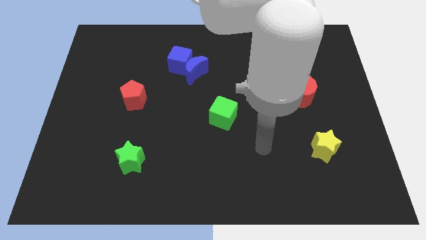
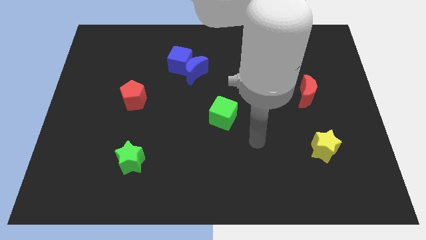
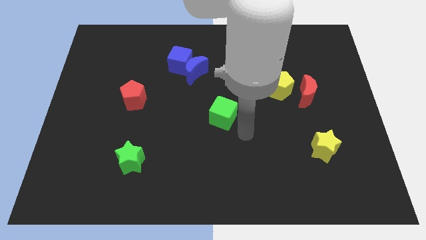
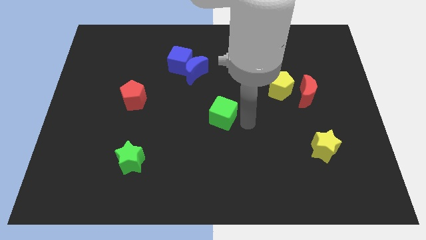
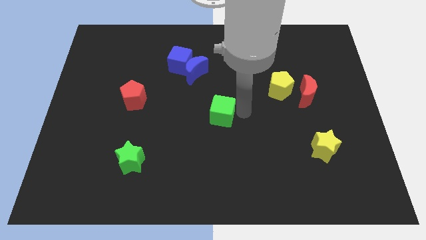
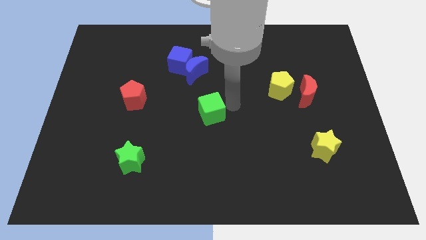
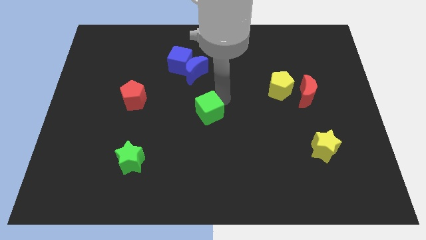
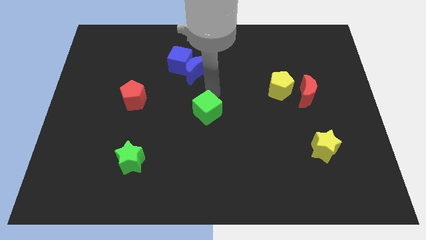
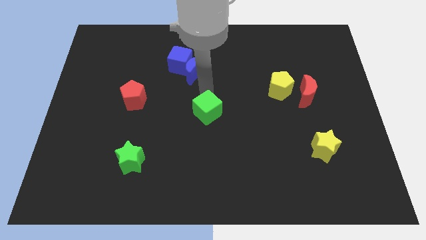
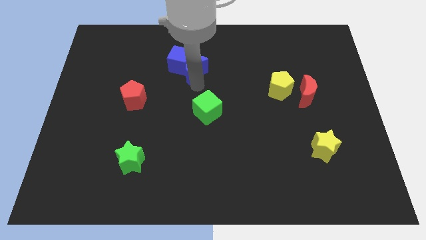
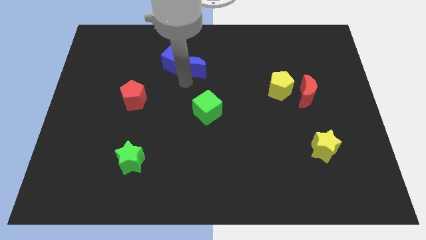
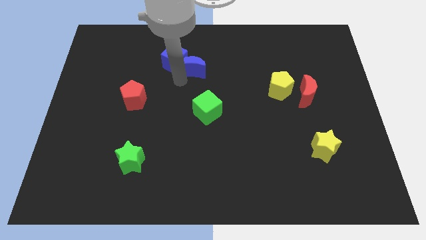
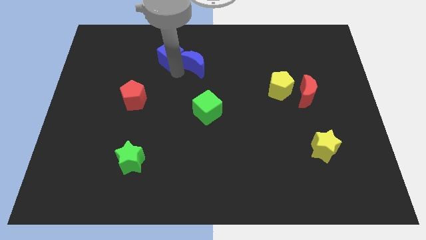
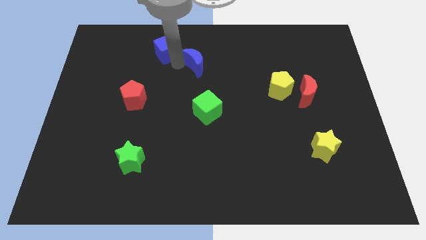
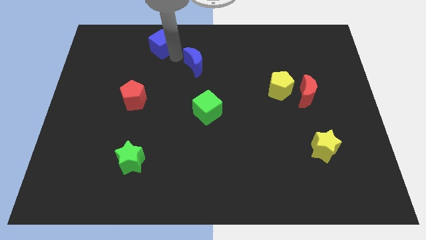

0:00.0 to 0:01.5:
pull the blue moon apart from the blue cube

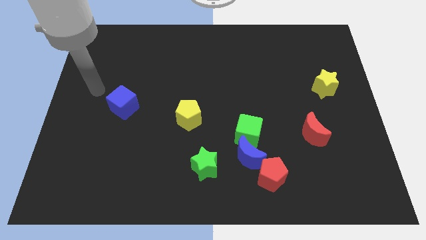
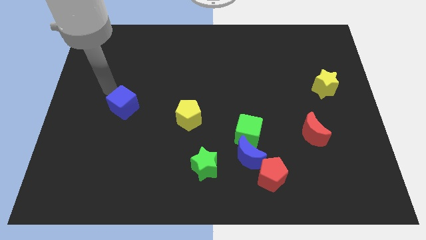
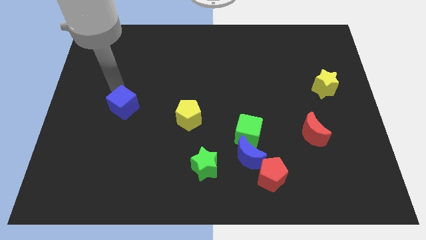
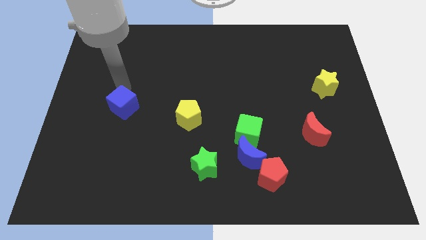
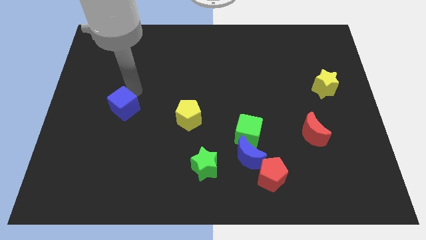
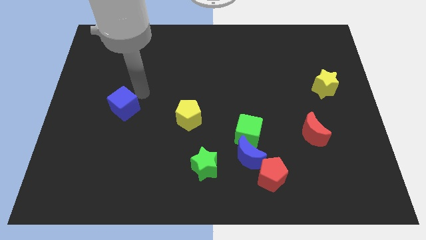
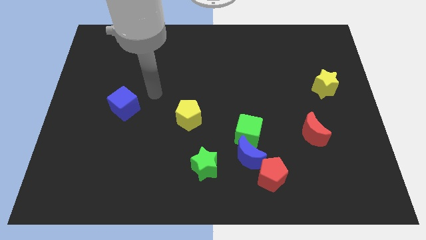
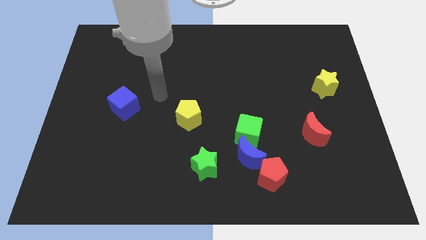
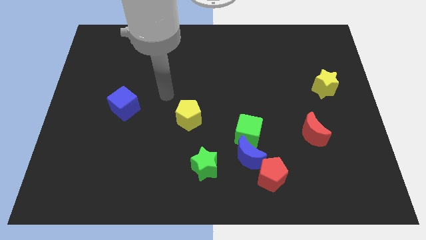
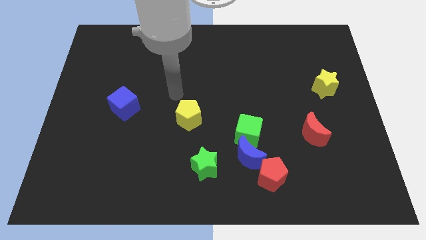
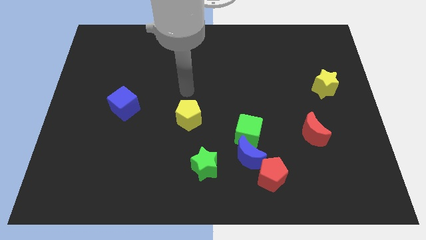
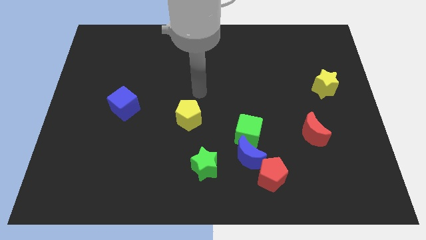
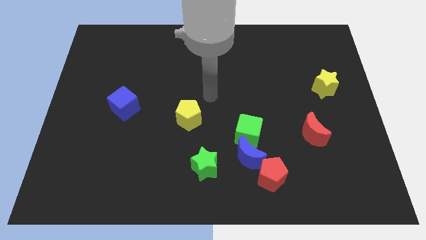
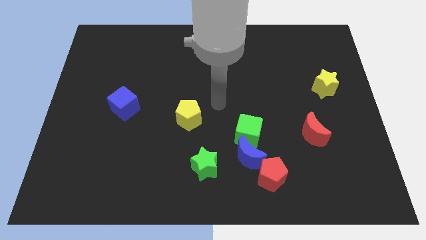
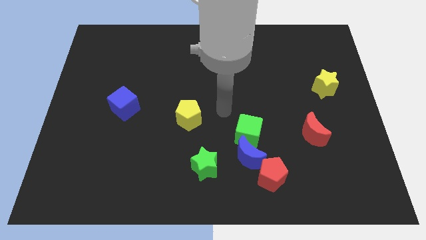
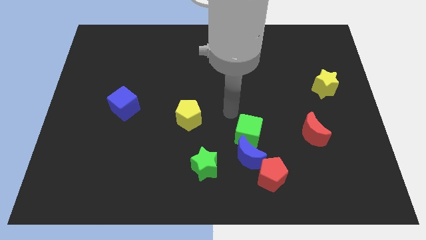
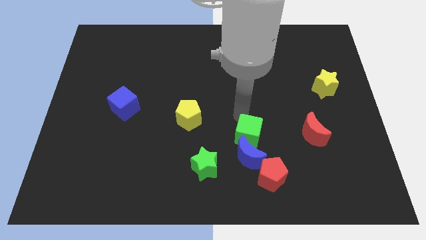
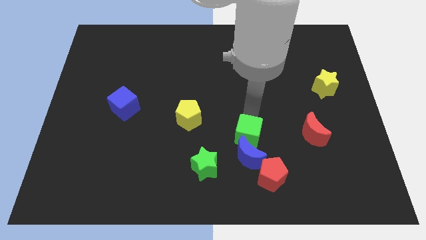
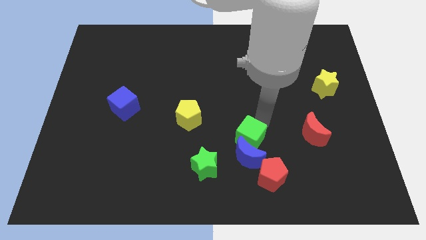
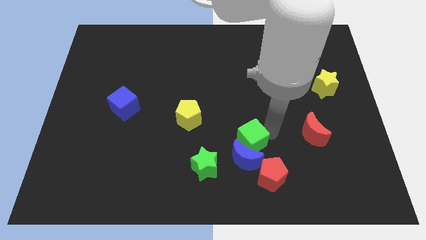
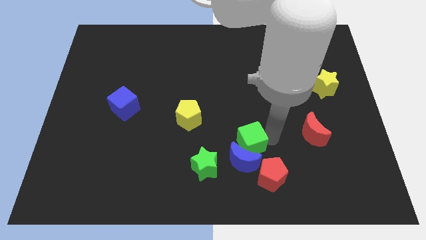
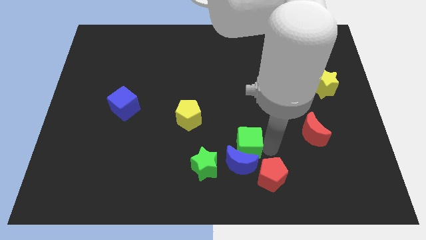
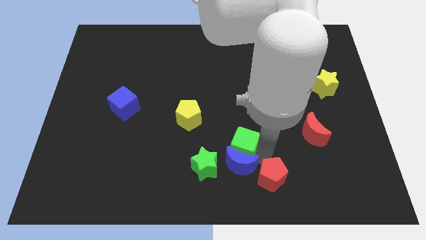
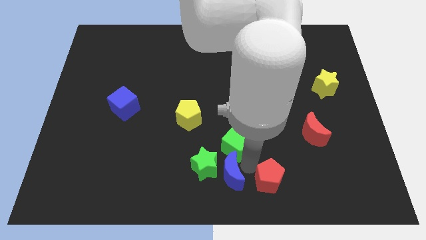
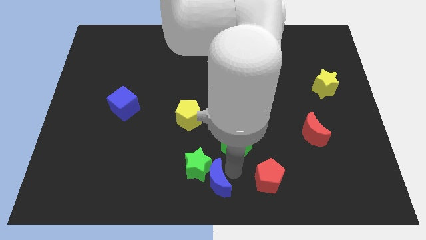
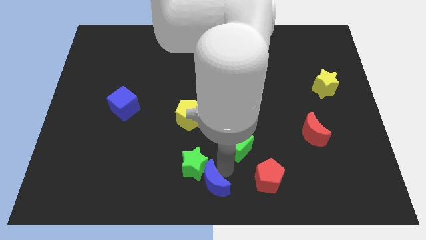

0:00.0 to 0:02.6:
separate the green cube from the blue moon

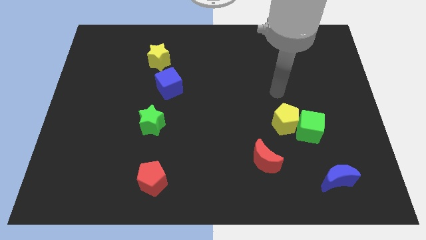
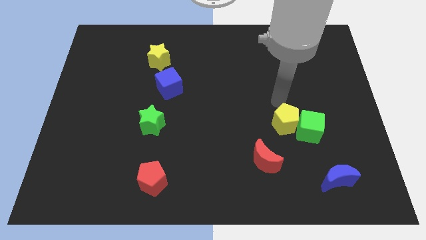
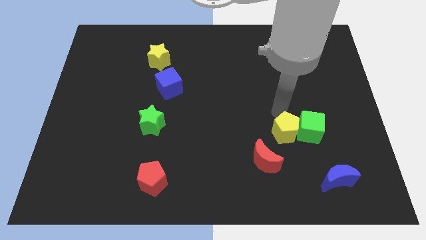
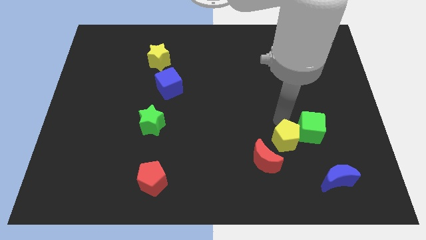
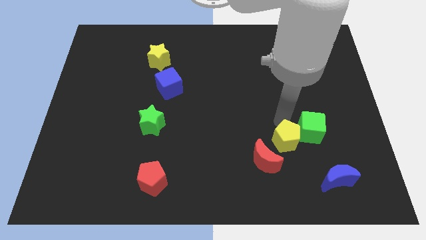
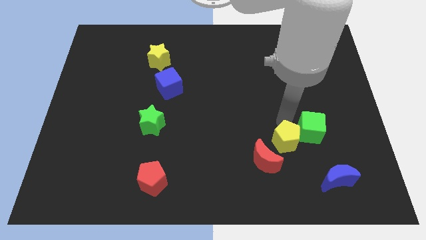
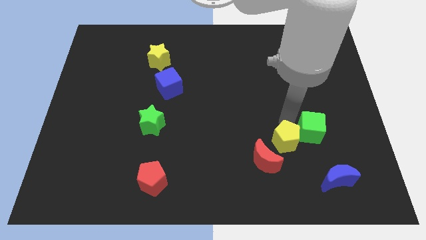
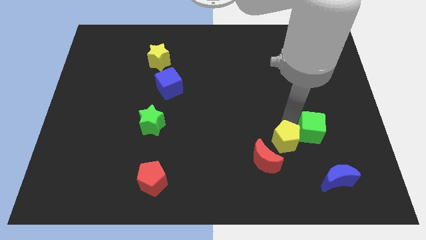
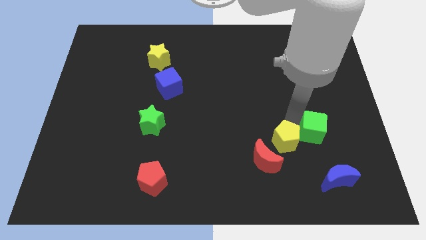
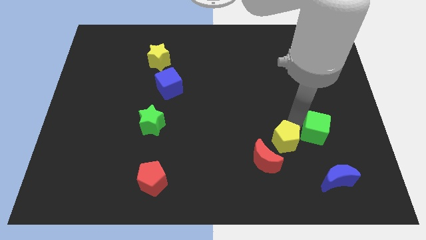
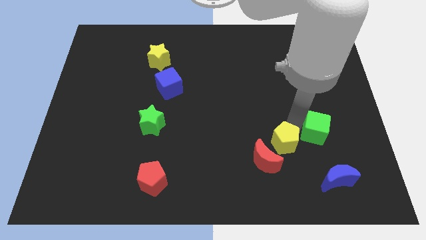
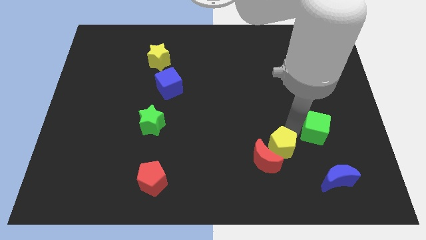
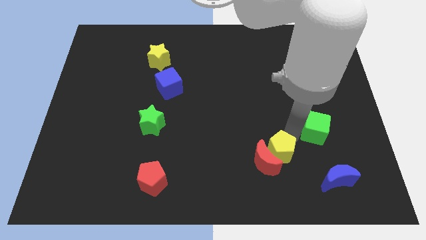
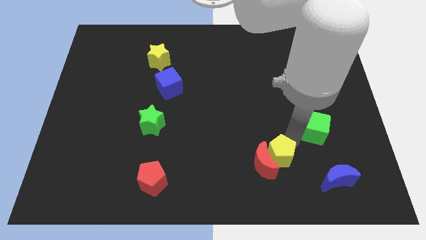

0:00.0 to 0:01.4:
separate the green cube from the yellow pentagon

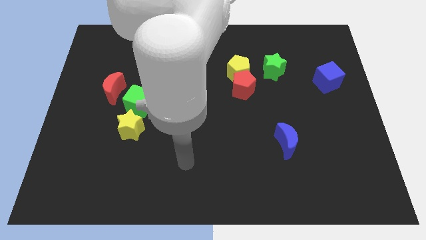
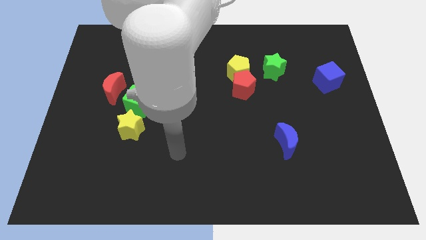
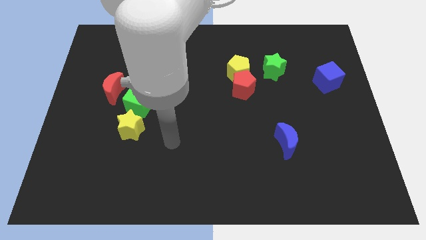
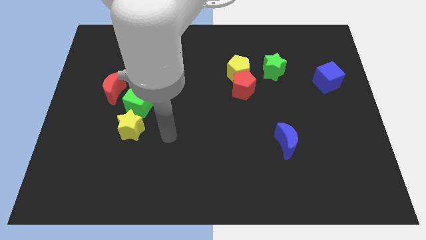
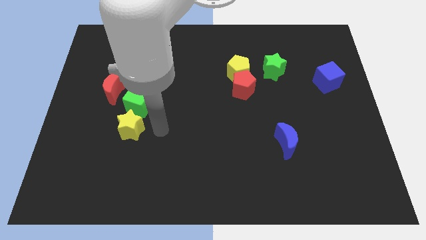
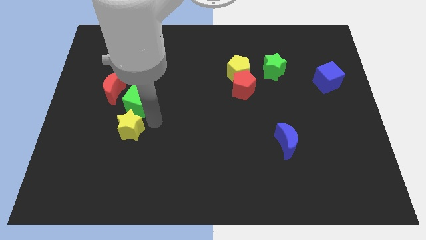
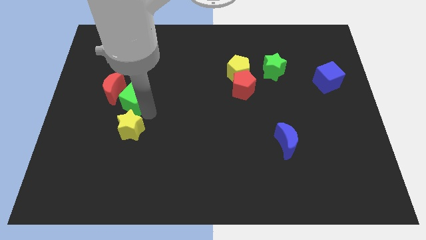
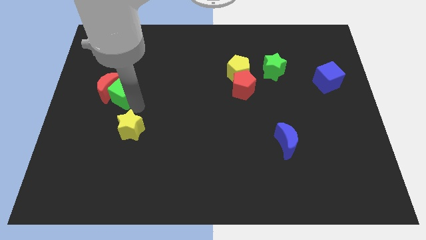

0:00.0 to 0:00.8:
pull the yellow star apart from the green cube

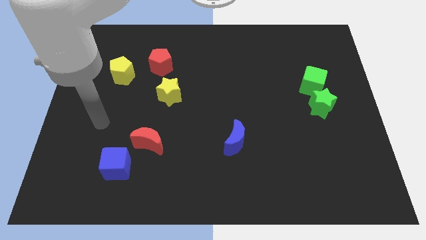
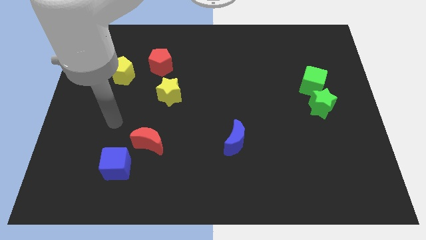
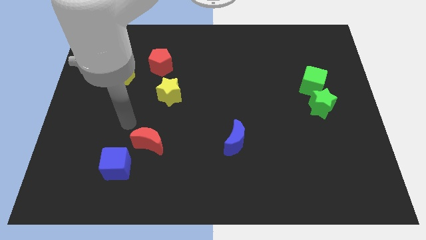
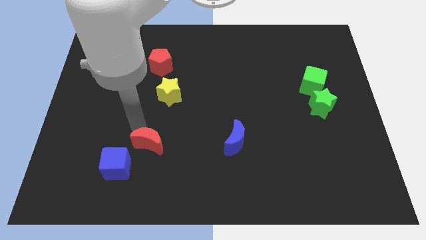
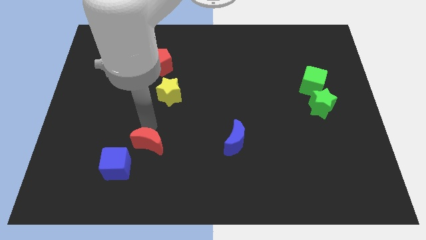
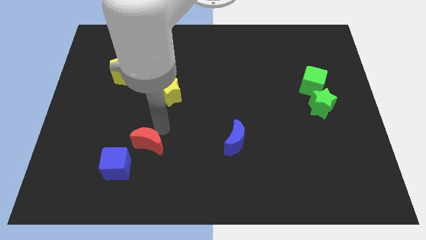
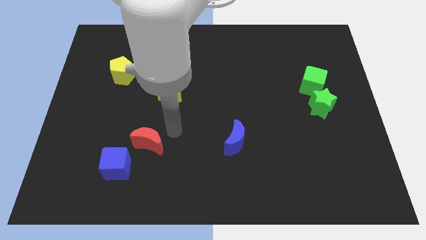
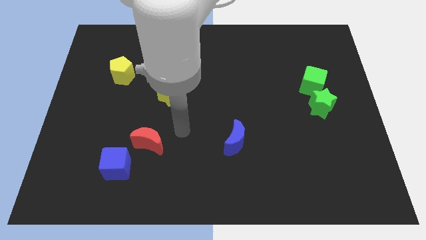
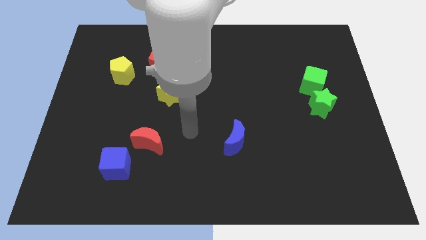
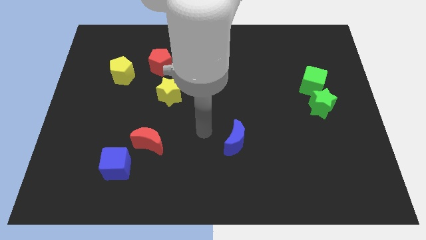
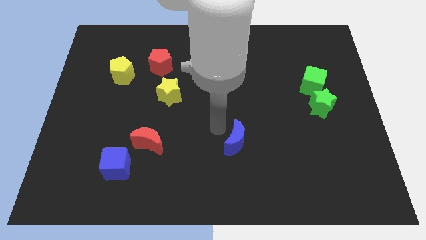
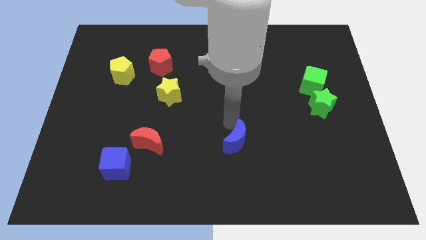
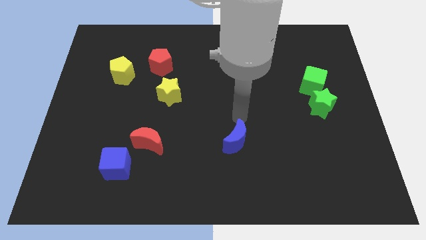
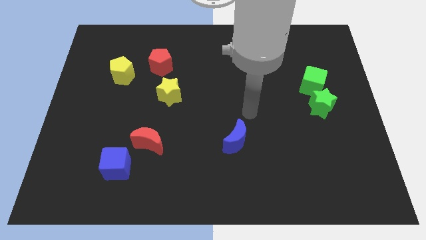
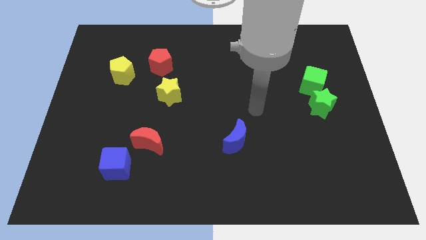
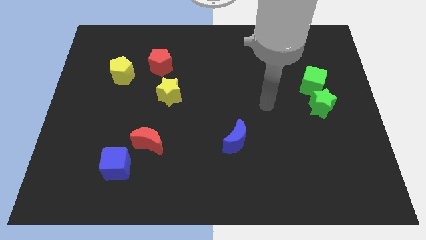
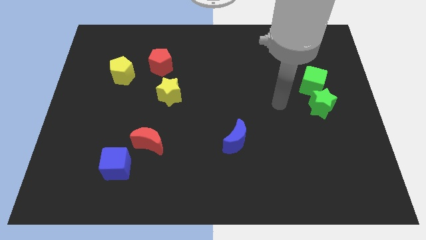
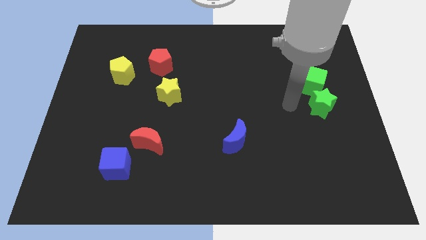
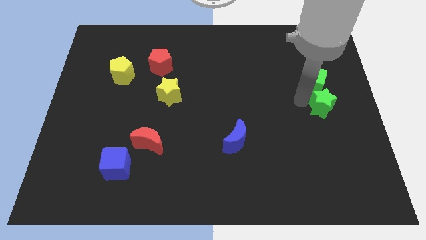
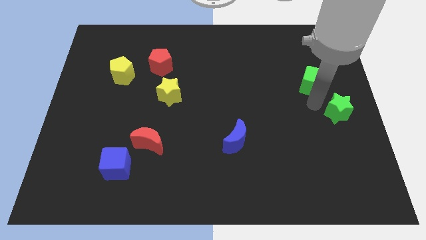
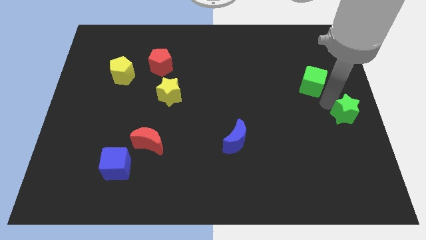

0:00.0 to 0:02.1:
pull the green cube apart from the green star

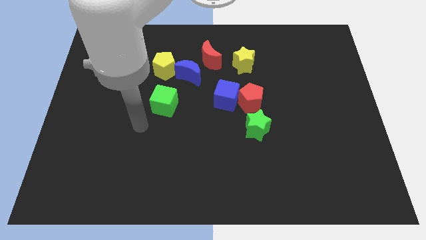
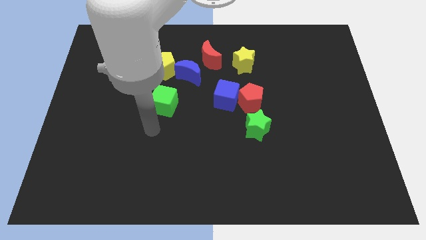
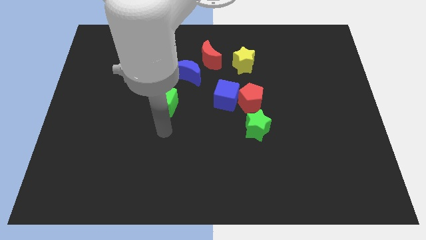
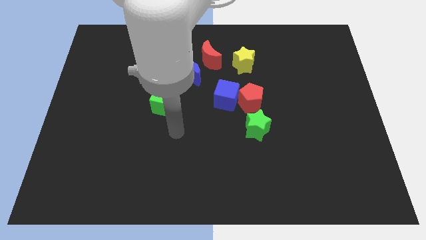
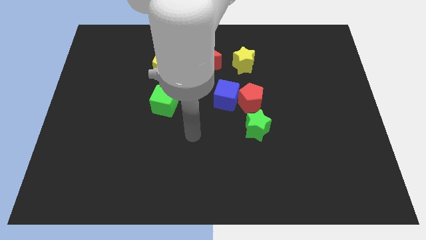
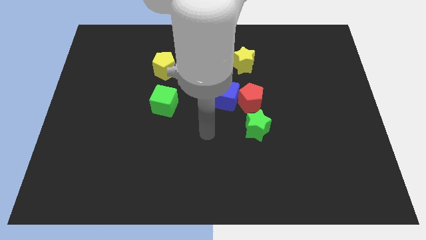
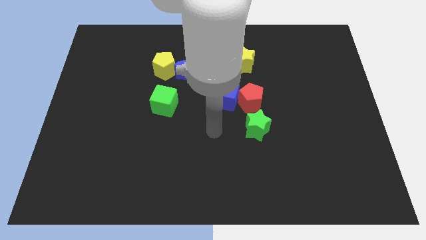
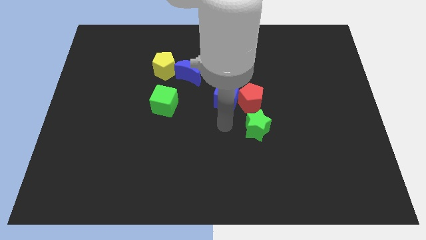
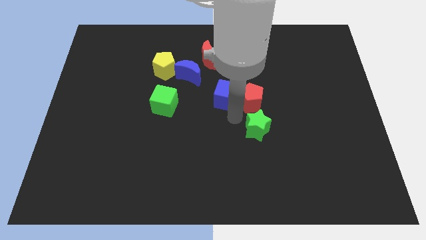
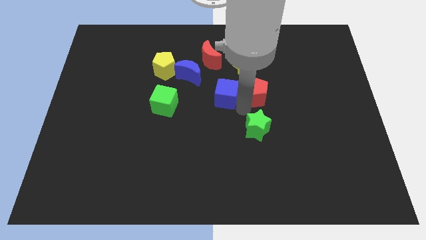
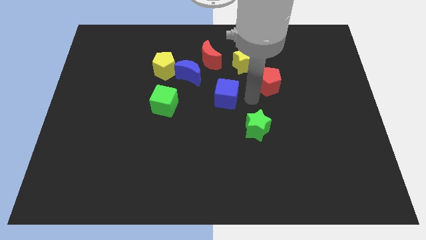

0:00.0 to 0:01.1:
pull the blue cube apart from the red pentagon

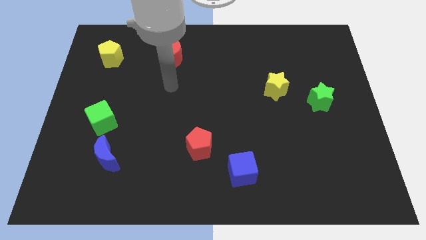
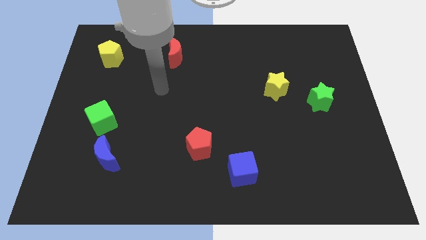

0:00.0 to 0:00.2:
move the blue moon away from the green cube
